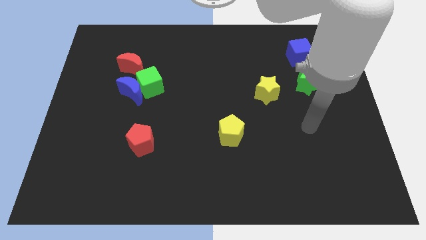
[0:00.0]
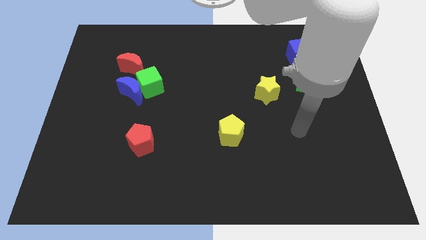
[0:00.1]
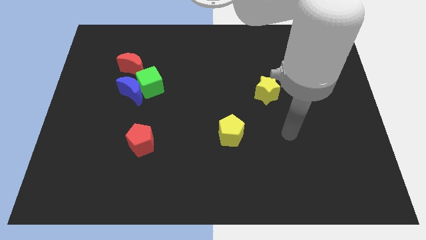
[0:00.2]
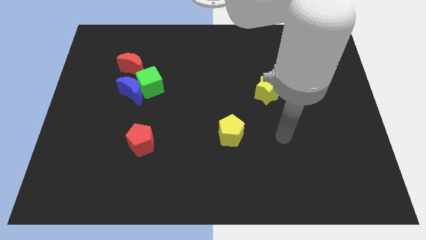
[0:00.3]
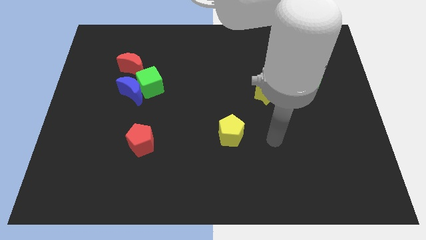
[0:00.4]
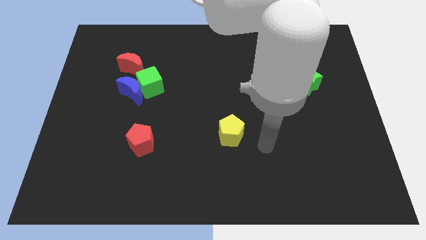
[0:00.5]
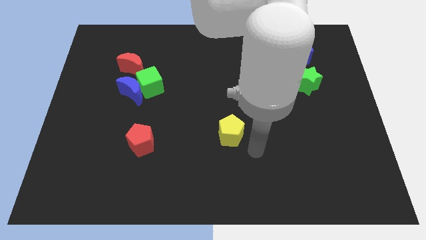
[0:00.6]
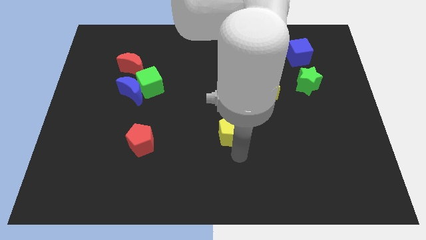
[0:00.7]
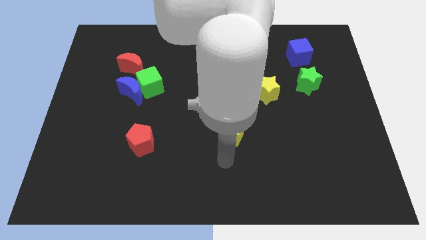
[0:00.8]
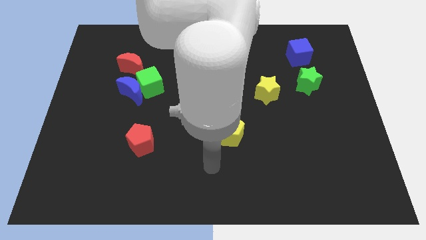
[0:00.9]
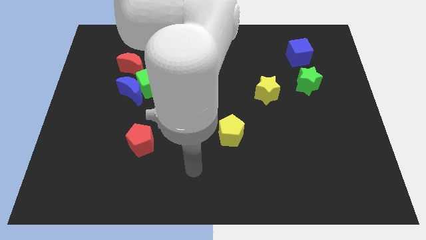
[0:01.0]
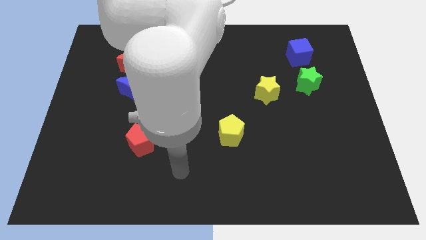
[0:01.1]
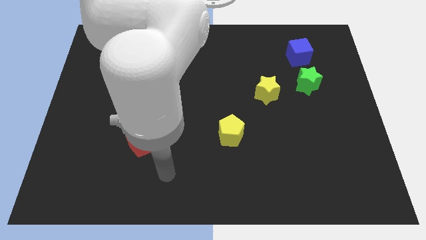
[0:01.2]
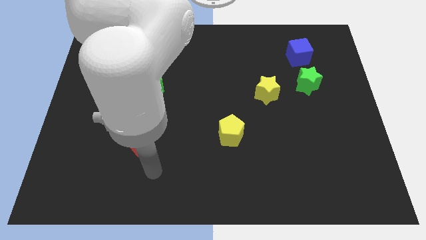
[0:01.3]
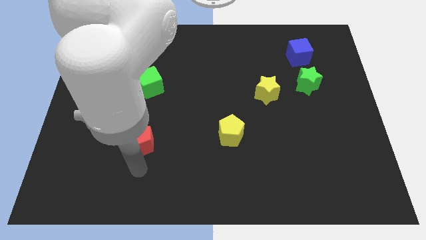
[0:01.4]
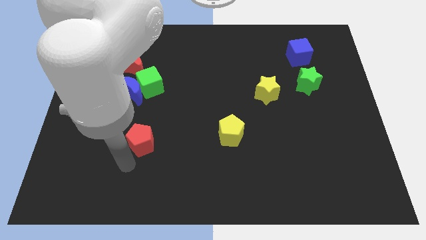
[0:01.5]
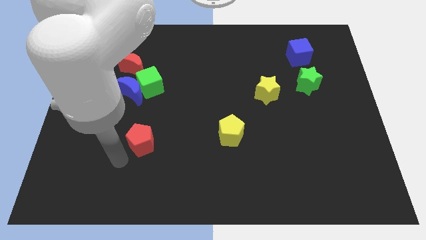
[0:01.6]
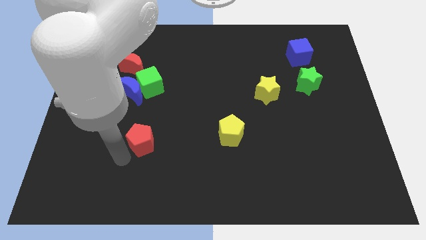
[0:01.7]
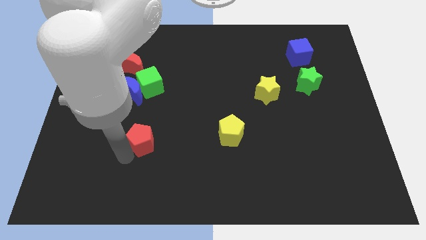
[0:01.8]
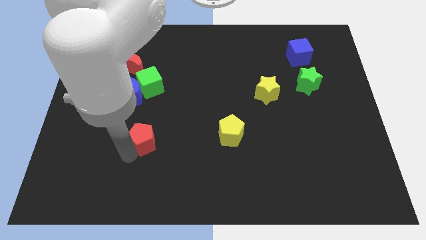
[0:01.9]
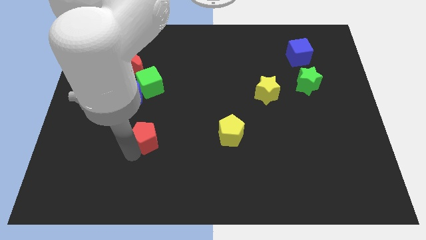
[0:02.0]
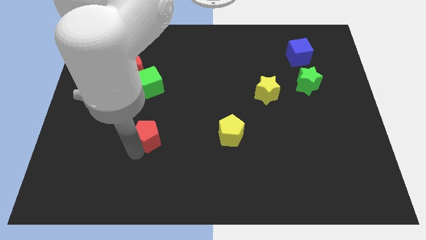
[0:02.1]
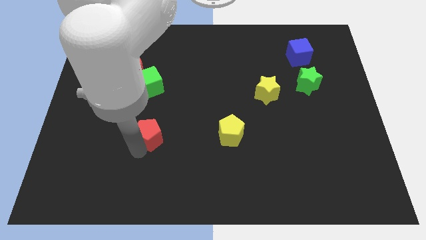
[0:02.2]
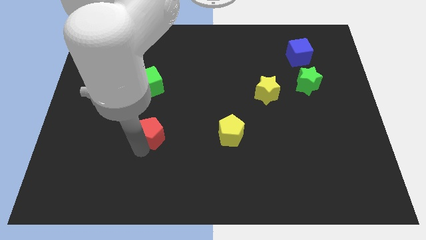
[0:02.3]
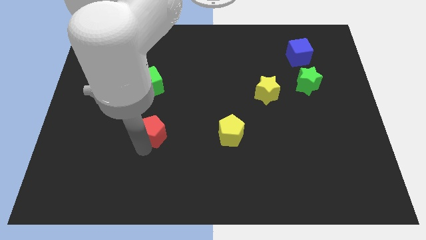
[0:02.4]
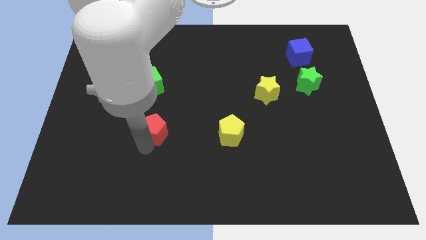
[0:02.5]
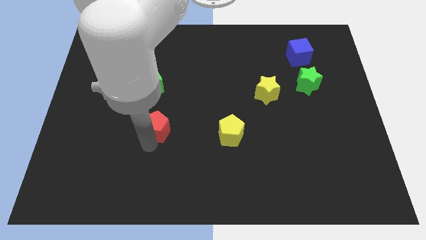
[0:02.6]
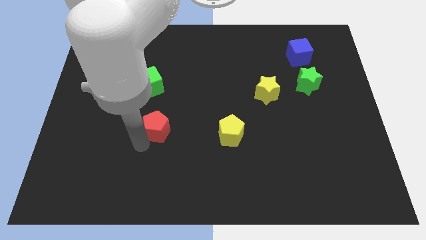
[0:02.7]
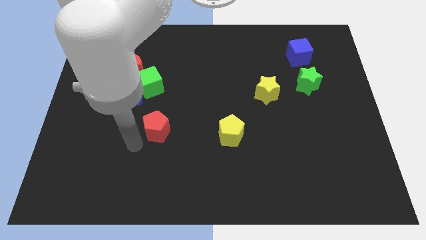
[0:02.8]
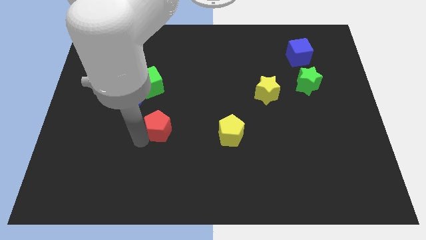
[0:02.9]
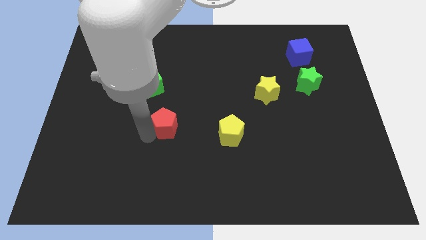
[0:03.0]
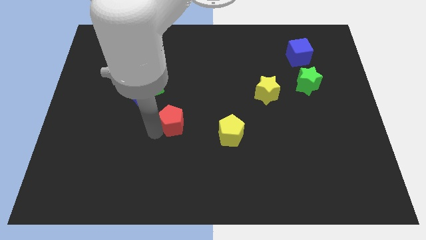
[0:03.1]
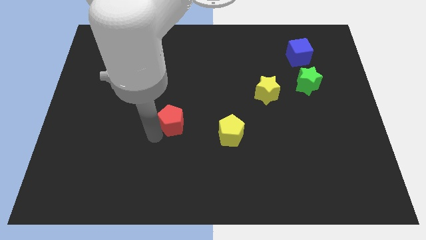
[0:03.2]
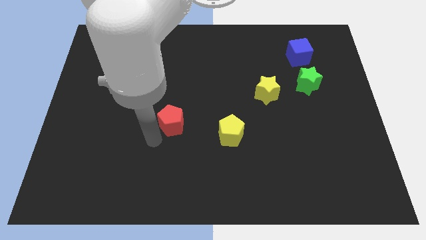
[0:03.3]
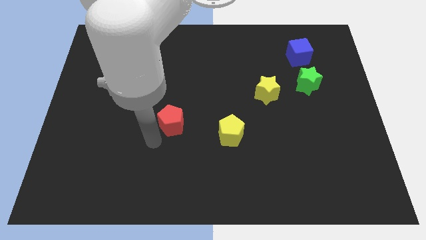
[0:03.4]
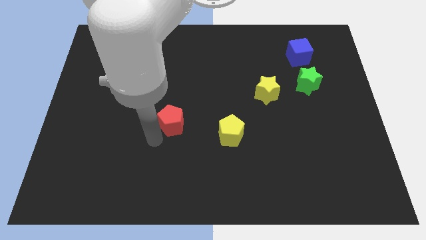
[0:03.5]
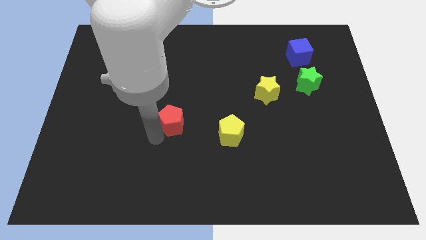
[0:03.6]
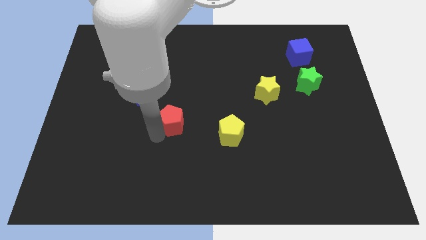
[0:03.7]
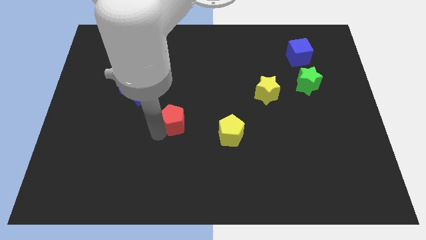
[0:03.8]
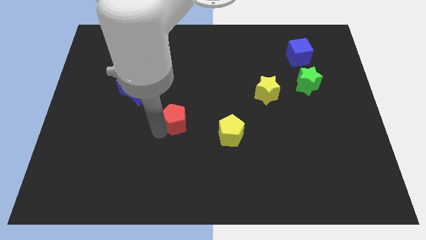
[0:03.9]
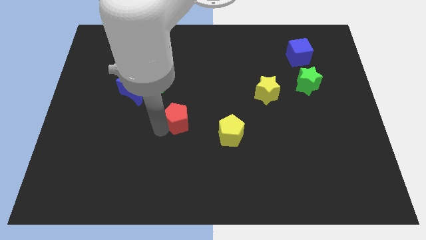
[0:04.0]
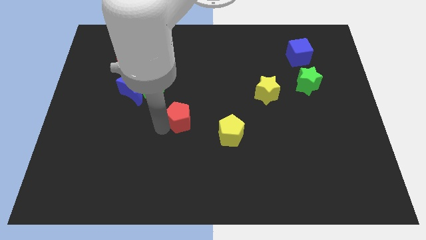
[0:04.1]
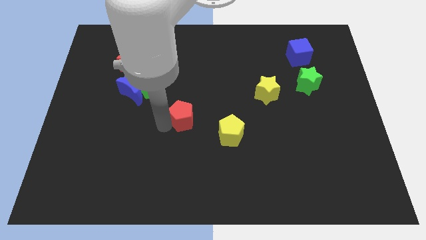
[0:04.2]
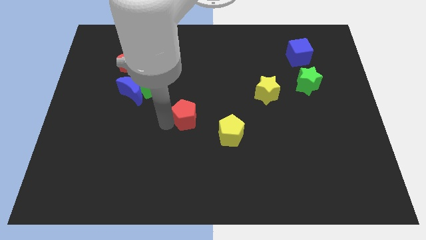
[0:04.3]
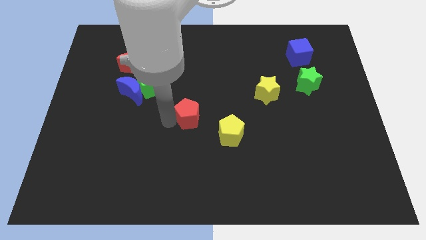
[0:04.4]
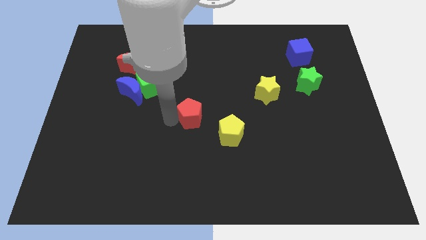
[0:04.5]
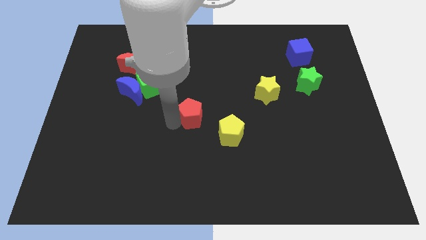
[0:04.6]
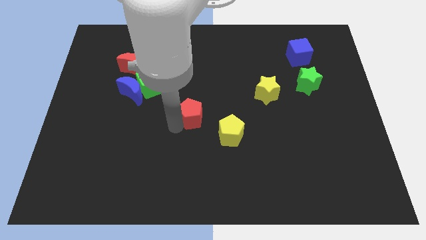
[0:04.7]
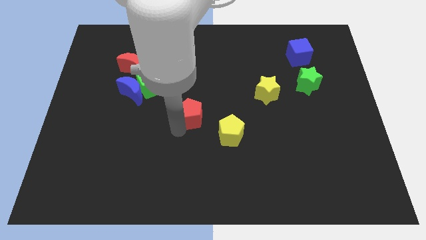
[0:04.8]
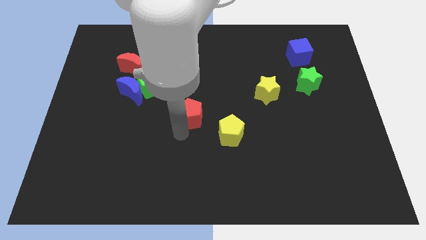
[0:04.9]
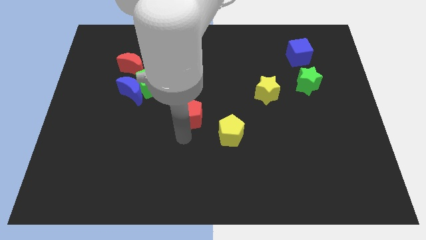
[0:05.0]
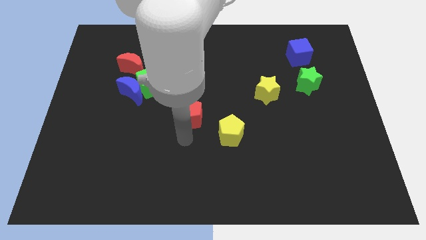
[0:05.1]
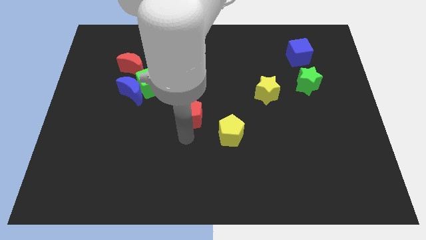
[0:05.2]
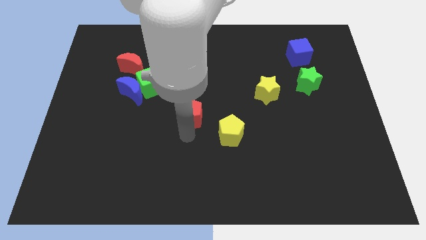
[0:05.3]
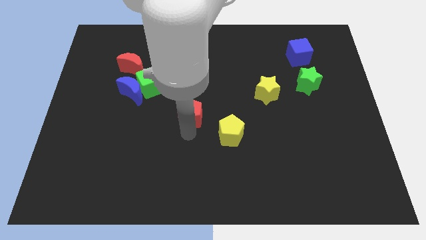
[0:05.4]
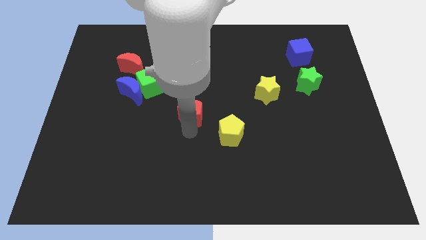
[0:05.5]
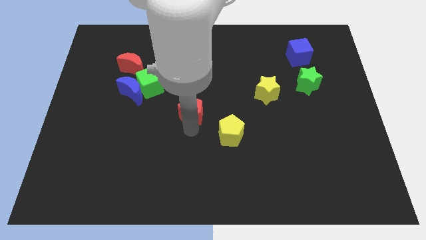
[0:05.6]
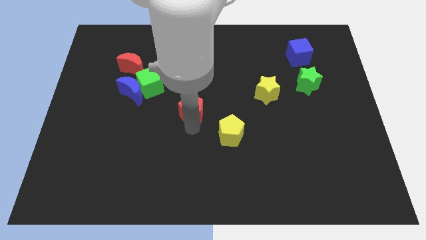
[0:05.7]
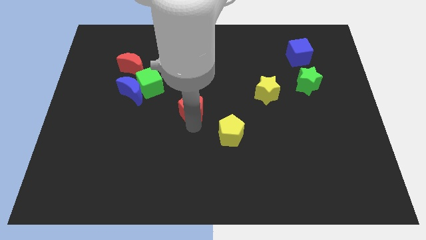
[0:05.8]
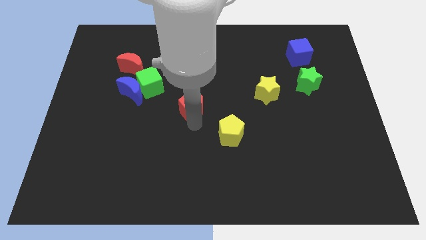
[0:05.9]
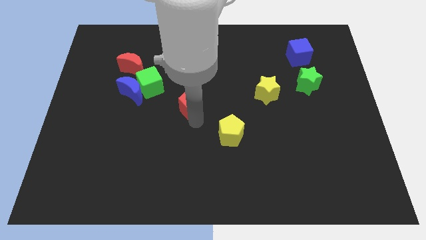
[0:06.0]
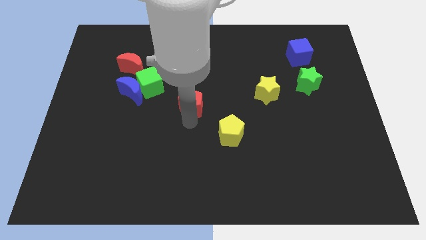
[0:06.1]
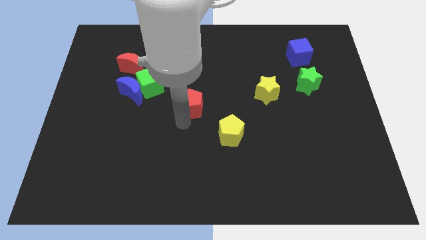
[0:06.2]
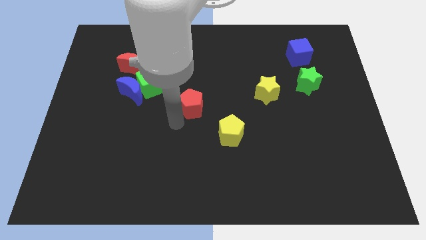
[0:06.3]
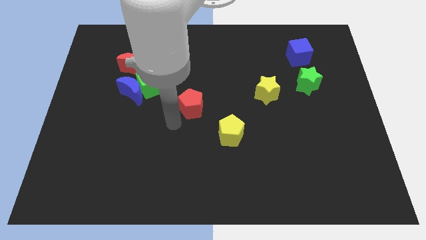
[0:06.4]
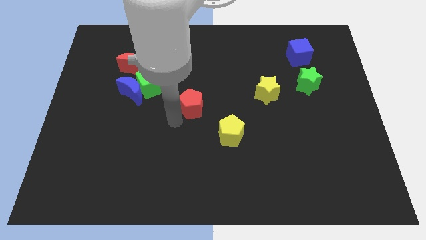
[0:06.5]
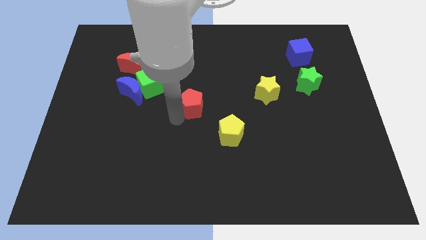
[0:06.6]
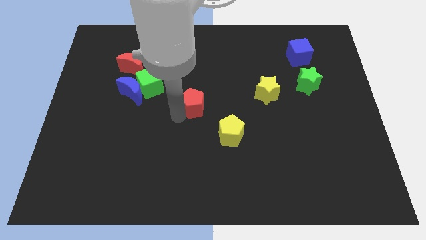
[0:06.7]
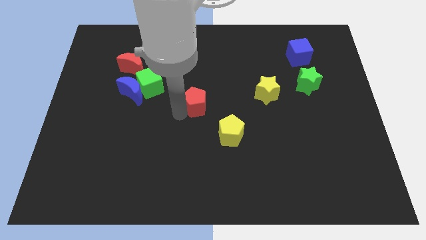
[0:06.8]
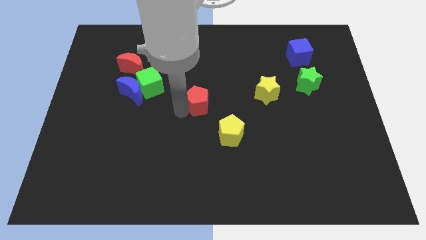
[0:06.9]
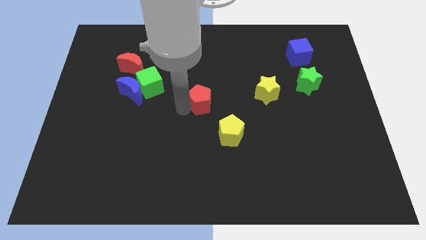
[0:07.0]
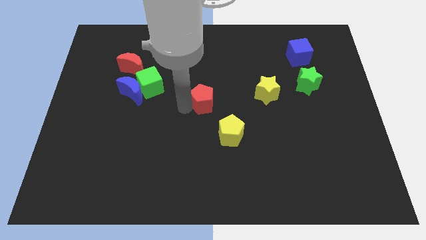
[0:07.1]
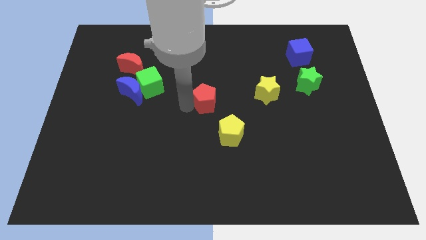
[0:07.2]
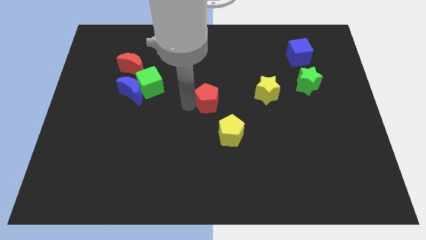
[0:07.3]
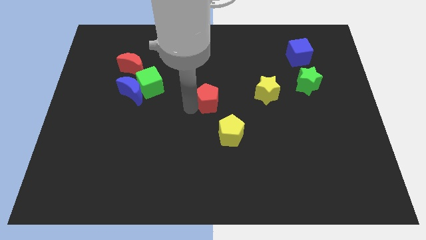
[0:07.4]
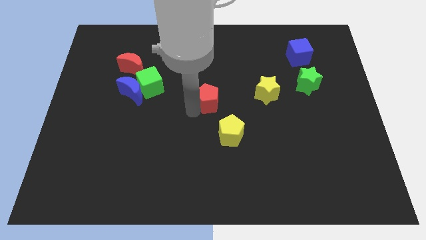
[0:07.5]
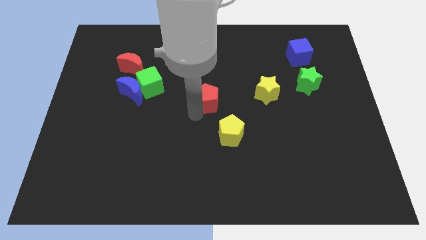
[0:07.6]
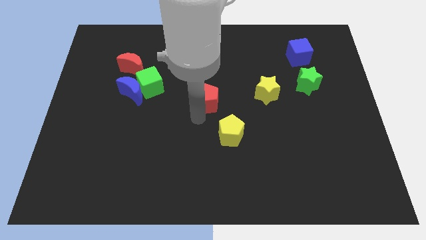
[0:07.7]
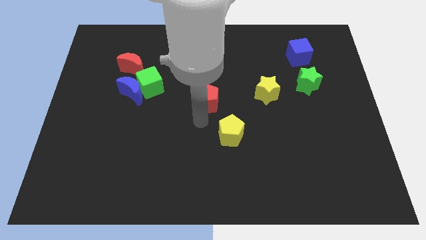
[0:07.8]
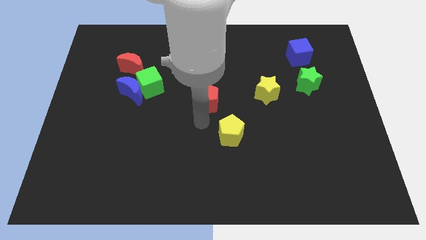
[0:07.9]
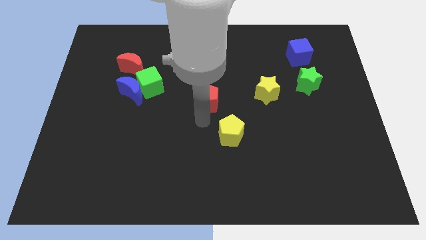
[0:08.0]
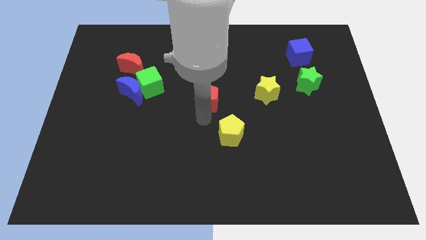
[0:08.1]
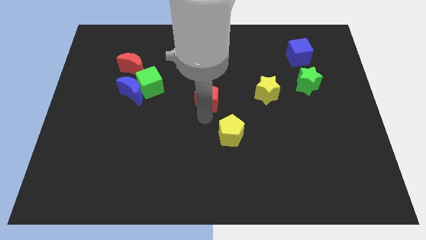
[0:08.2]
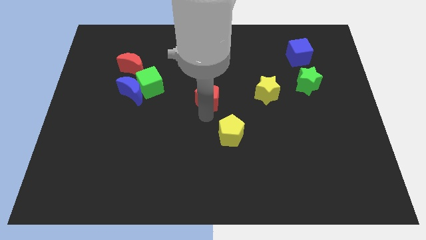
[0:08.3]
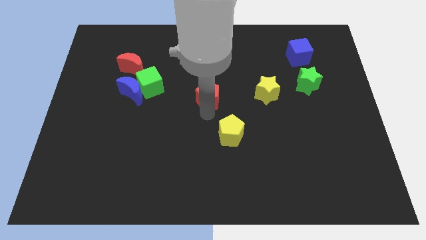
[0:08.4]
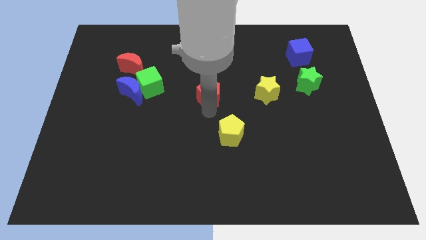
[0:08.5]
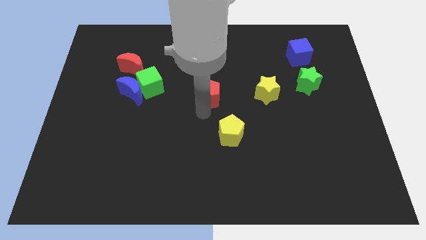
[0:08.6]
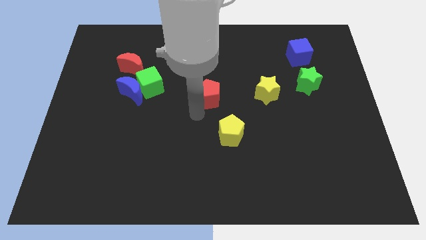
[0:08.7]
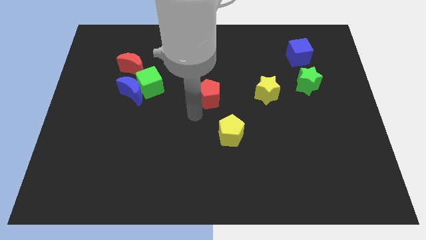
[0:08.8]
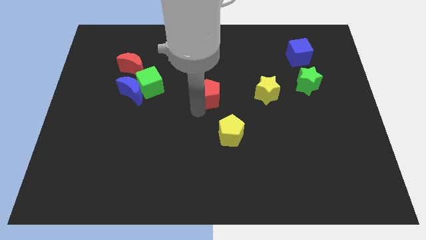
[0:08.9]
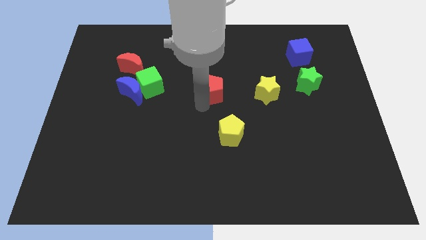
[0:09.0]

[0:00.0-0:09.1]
slide the red pentagon upwards and to the right diagonally
